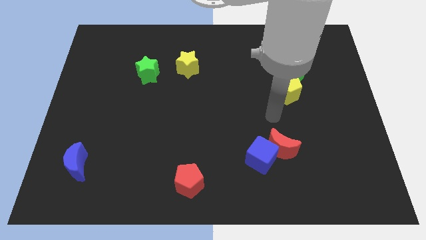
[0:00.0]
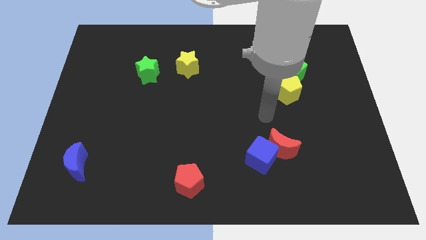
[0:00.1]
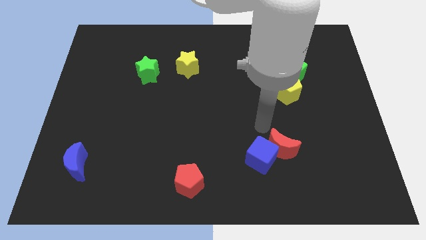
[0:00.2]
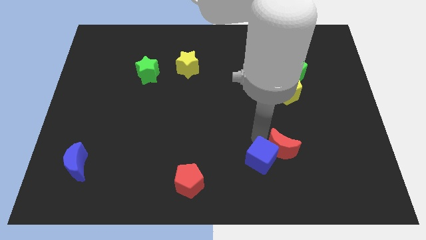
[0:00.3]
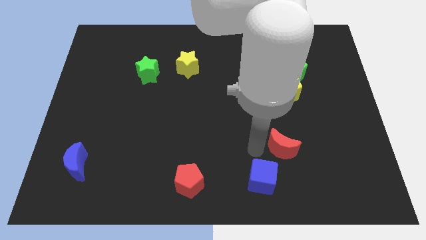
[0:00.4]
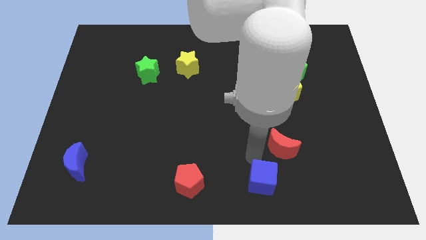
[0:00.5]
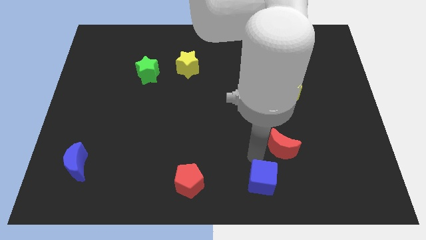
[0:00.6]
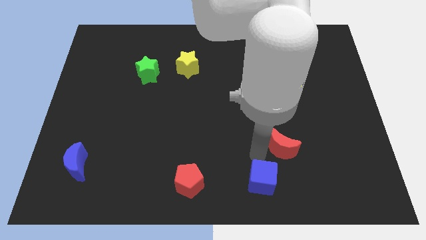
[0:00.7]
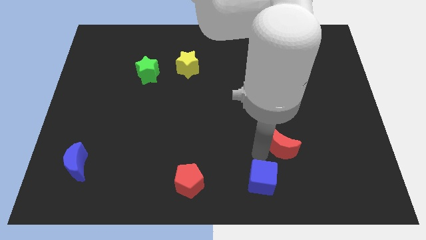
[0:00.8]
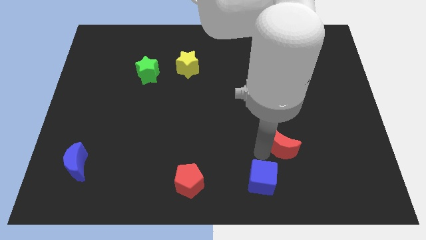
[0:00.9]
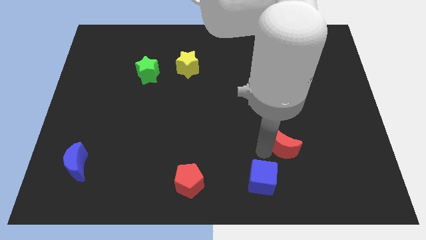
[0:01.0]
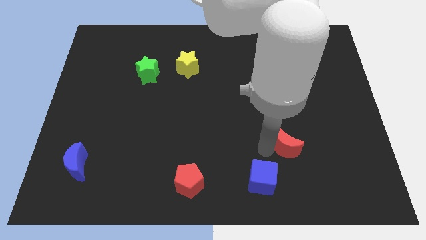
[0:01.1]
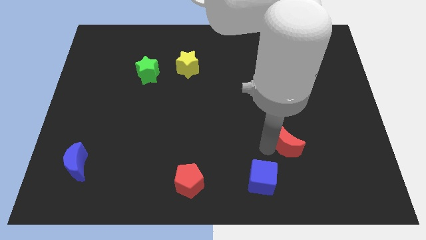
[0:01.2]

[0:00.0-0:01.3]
move the red moon away from the blue cube

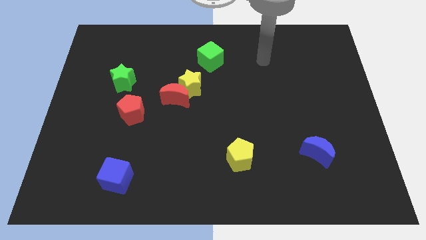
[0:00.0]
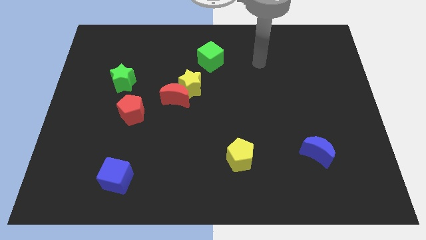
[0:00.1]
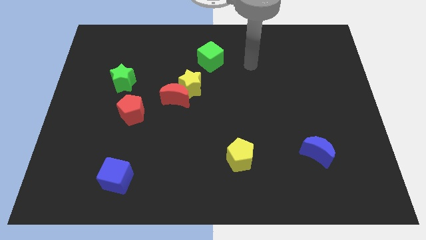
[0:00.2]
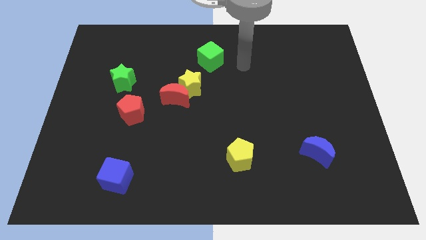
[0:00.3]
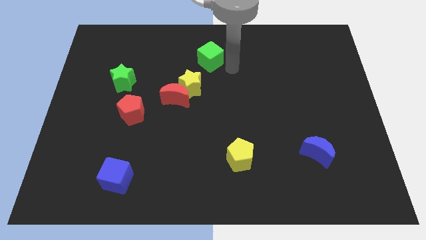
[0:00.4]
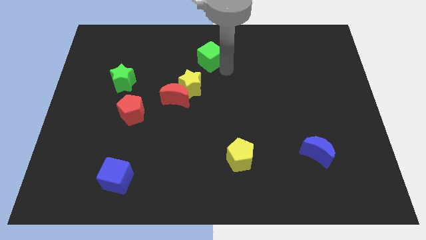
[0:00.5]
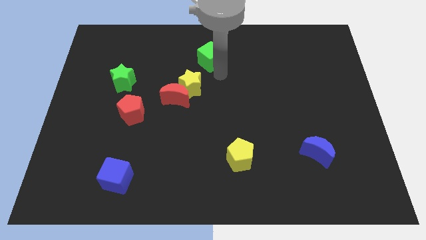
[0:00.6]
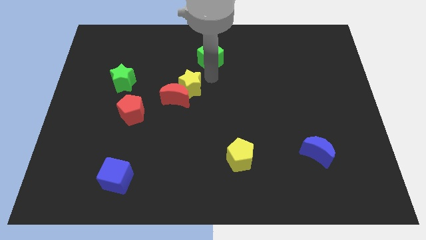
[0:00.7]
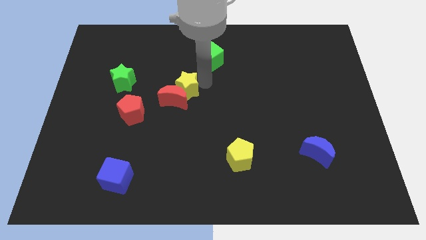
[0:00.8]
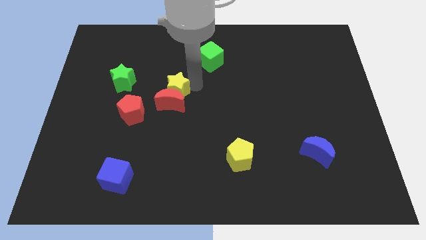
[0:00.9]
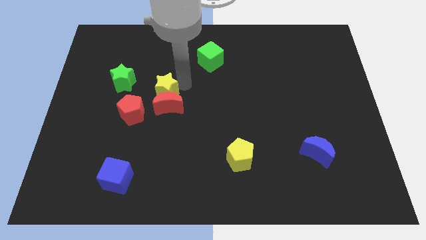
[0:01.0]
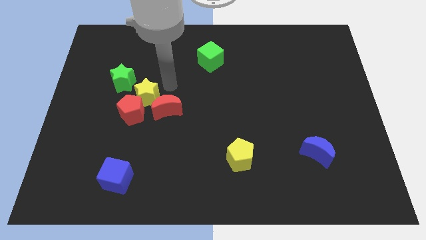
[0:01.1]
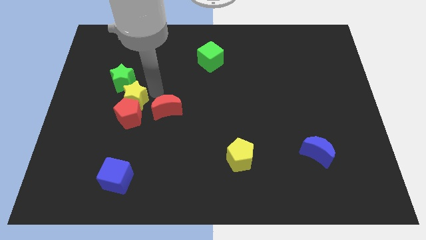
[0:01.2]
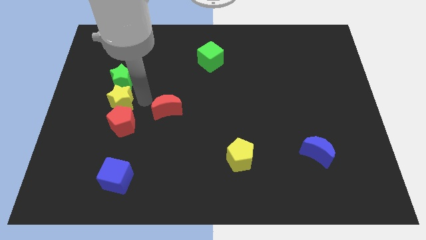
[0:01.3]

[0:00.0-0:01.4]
separate the red moon from the yellow star

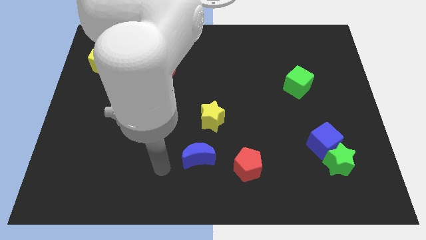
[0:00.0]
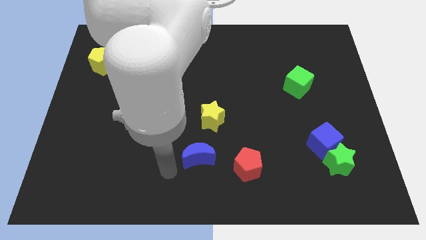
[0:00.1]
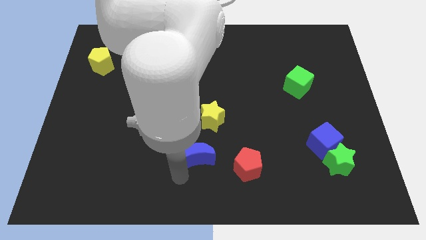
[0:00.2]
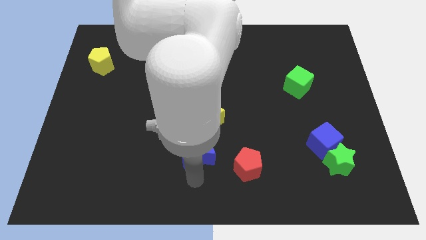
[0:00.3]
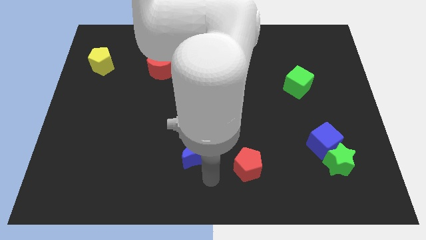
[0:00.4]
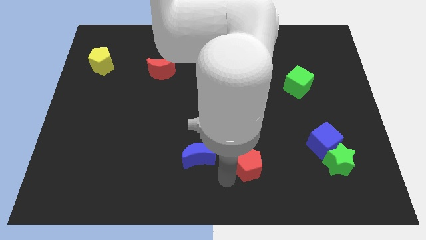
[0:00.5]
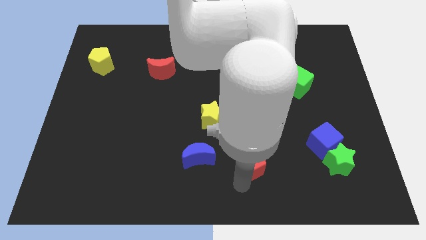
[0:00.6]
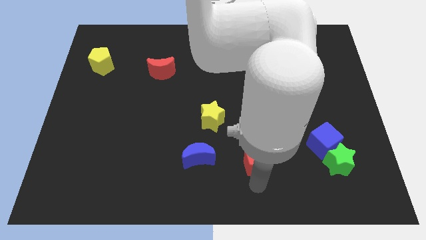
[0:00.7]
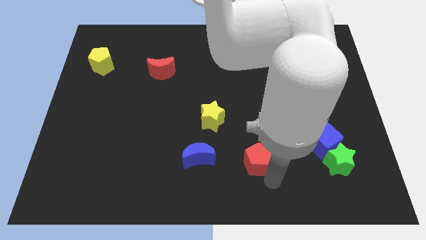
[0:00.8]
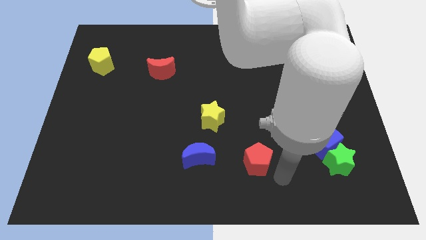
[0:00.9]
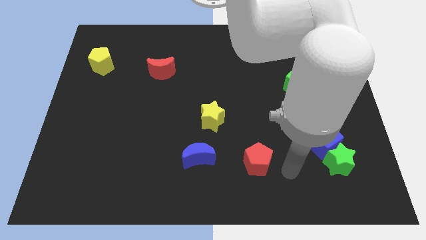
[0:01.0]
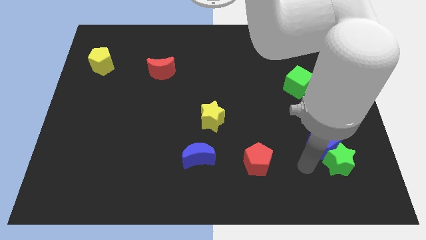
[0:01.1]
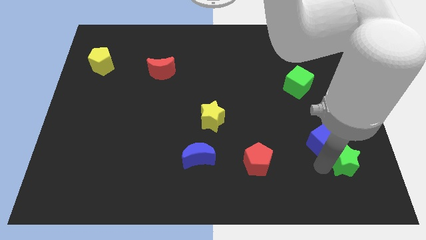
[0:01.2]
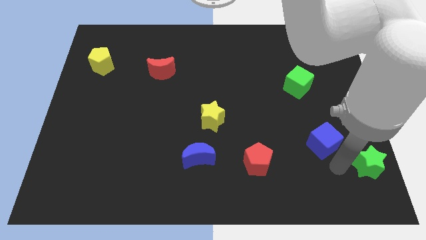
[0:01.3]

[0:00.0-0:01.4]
separate the blue cube from the green star

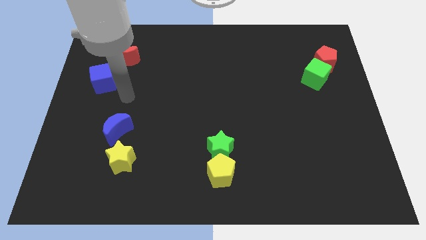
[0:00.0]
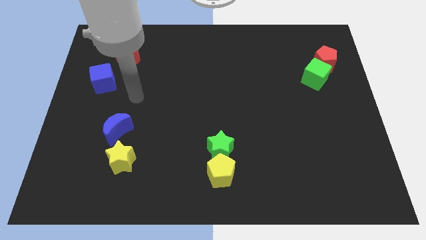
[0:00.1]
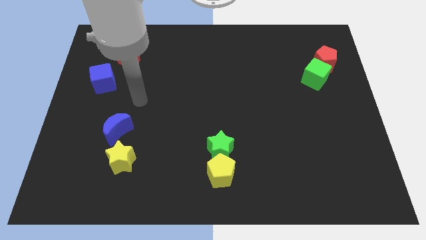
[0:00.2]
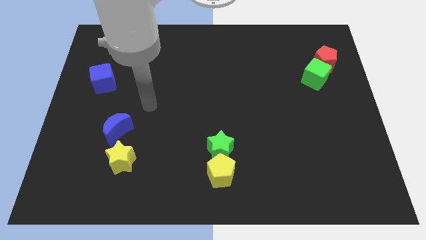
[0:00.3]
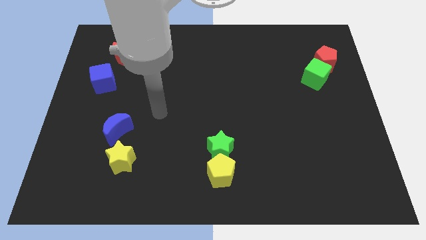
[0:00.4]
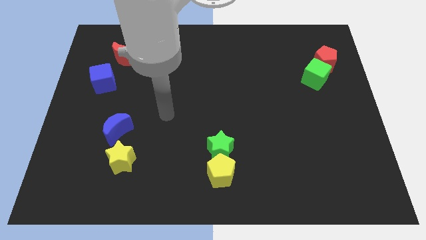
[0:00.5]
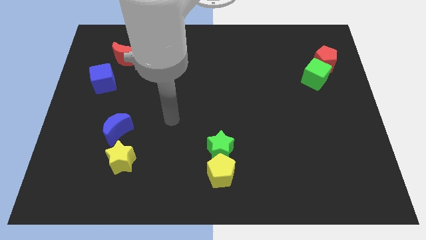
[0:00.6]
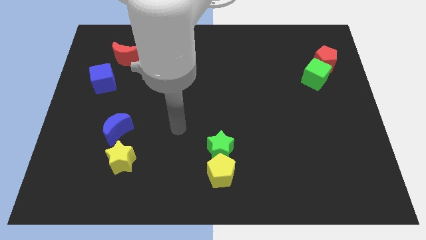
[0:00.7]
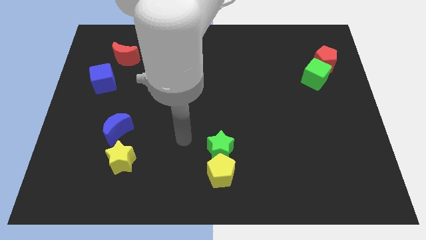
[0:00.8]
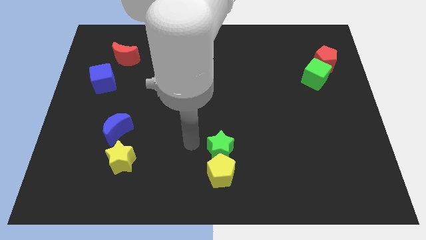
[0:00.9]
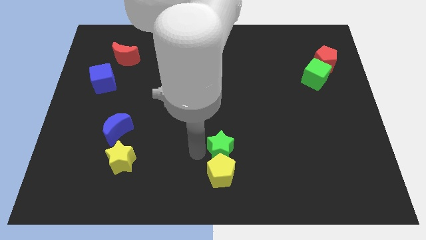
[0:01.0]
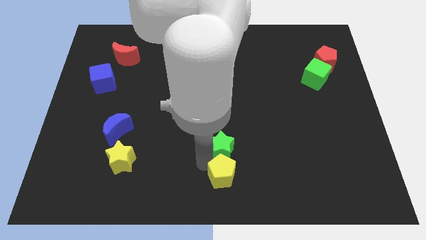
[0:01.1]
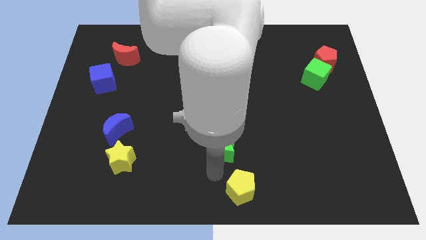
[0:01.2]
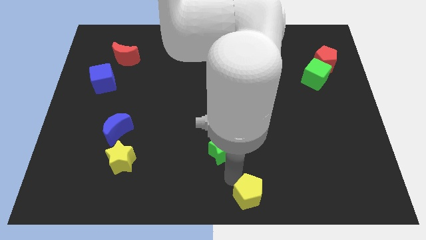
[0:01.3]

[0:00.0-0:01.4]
separate the green star from the yellow pentagon

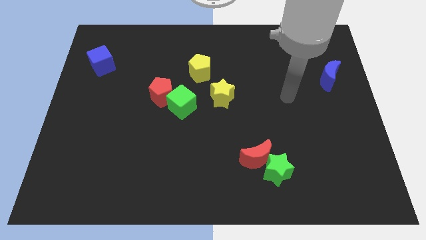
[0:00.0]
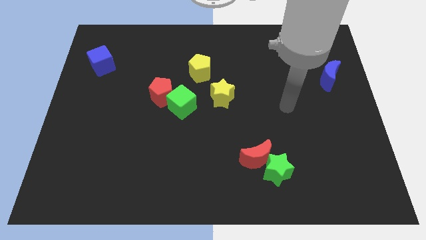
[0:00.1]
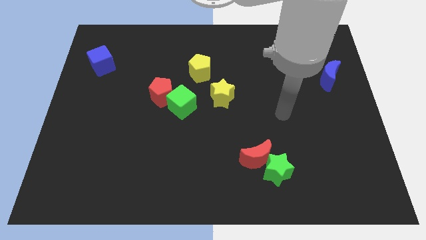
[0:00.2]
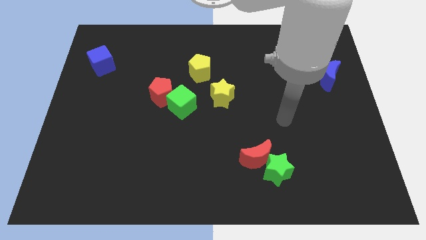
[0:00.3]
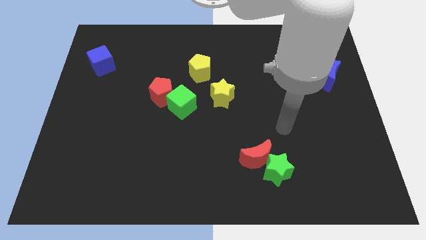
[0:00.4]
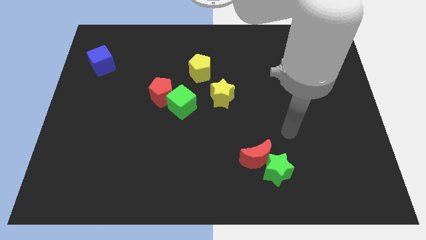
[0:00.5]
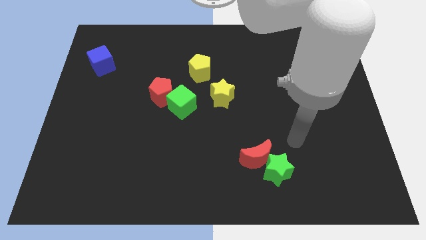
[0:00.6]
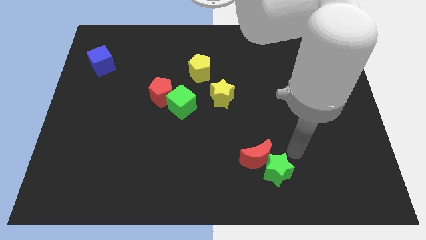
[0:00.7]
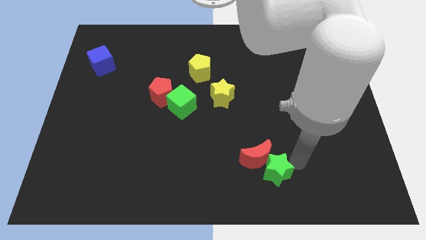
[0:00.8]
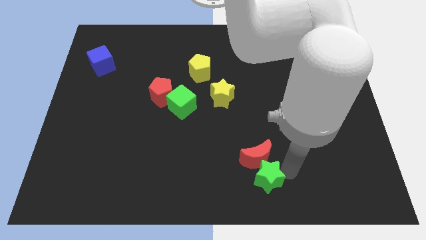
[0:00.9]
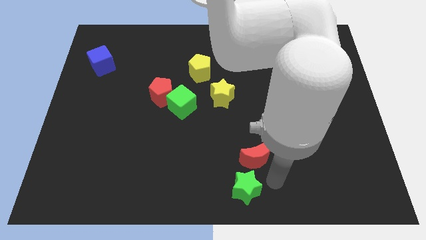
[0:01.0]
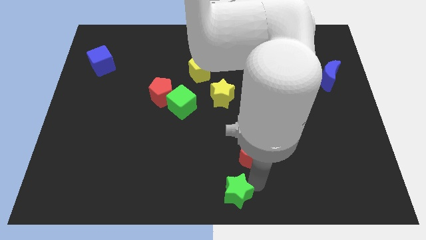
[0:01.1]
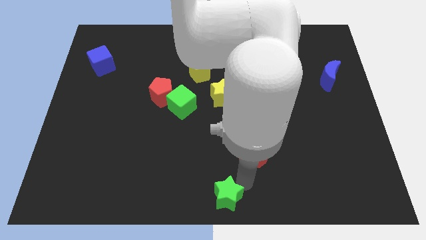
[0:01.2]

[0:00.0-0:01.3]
separate the red moon from the green star

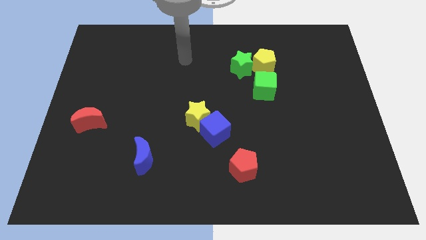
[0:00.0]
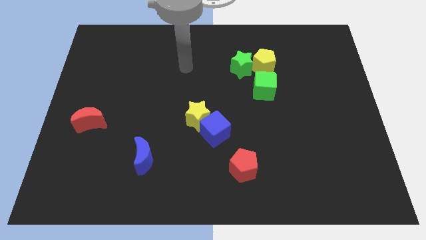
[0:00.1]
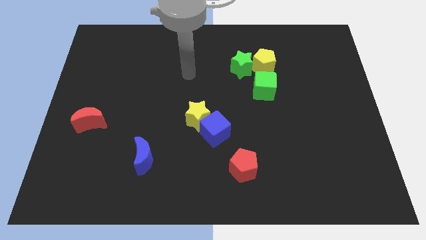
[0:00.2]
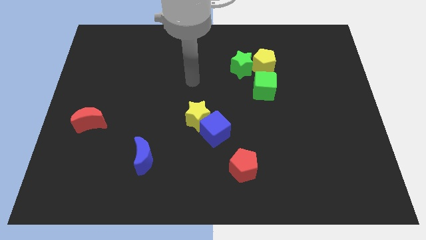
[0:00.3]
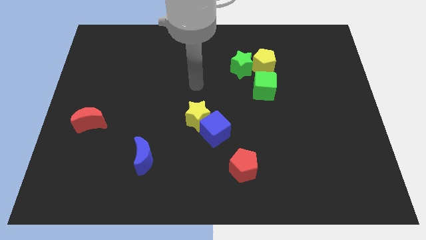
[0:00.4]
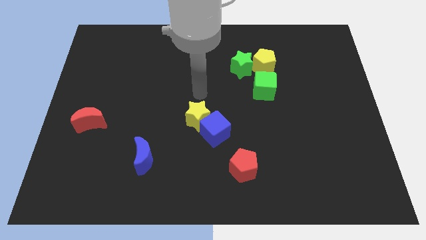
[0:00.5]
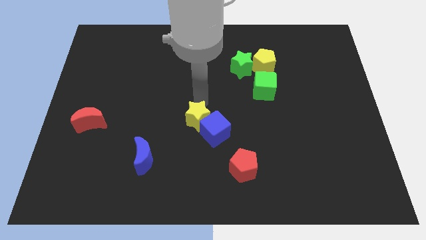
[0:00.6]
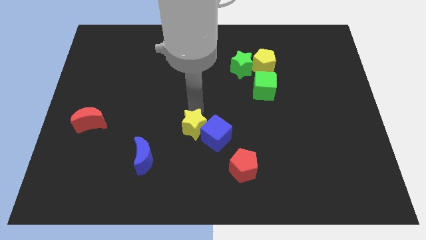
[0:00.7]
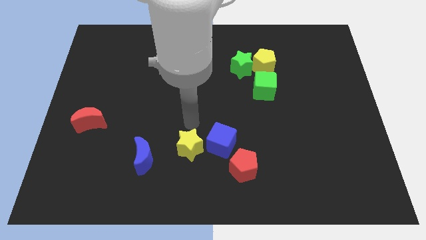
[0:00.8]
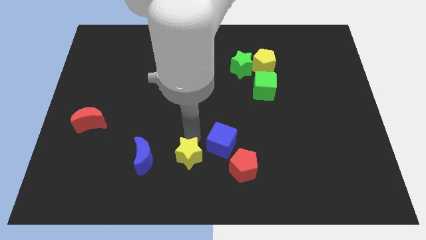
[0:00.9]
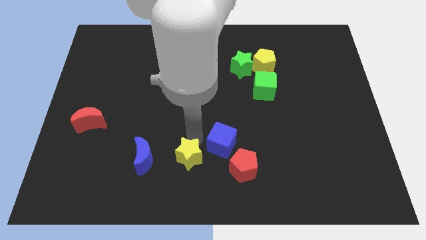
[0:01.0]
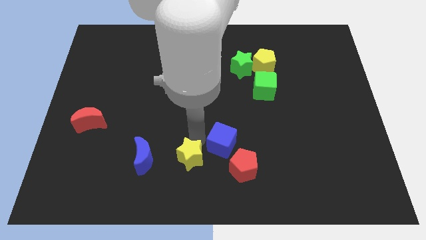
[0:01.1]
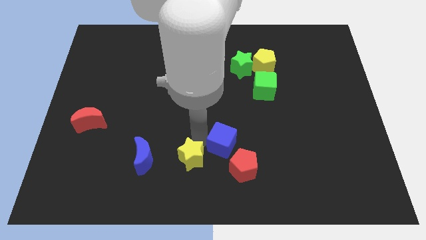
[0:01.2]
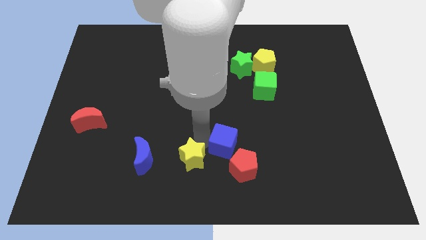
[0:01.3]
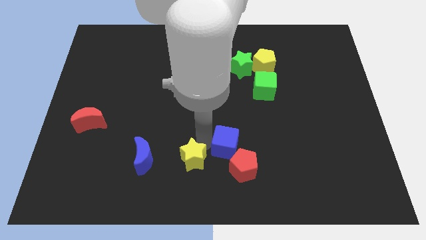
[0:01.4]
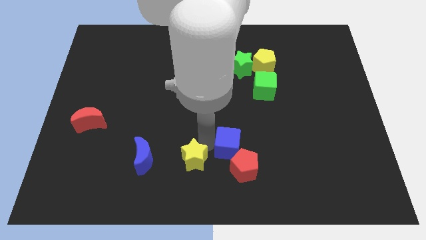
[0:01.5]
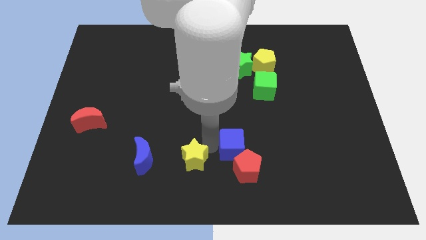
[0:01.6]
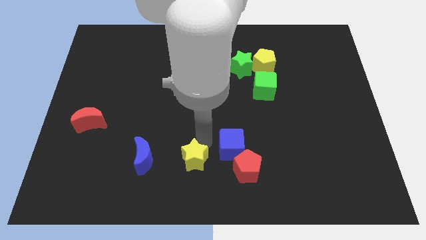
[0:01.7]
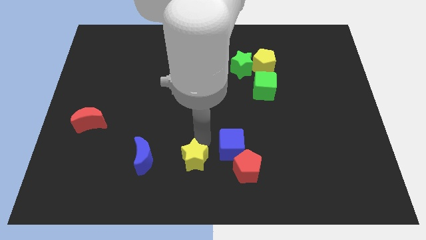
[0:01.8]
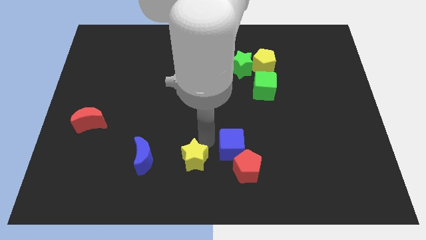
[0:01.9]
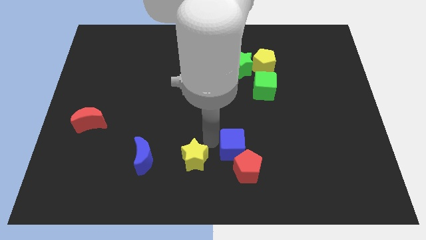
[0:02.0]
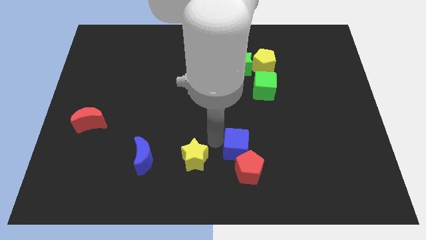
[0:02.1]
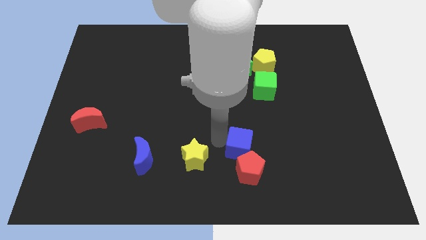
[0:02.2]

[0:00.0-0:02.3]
move the blue cube away from the yellow star

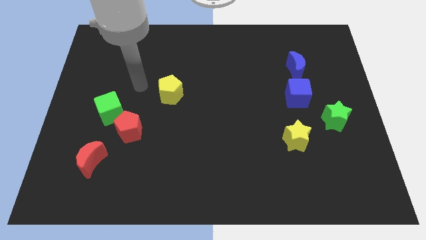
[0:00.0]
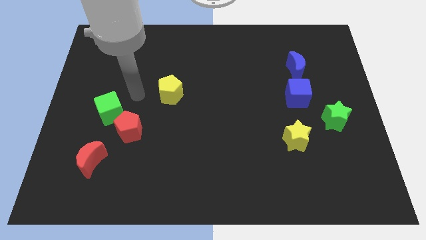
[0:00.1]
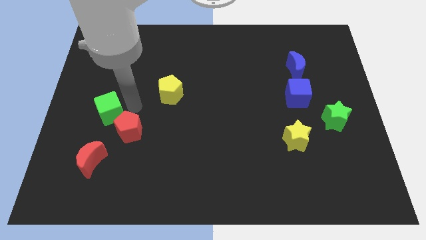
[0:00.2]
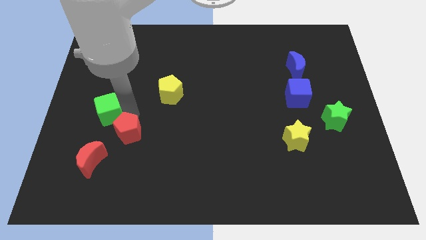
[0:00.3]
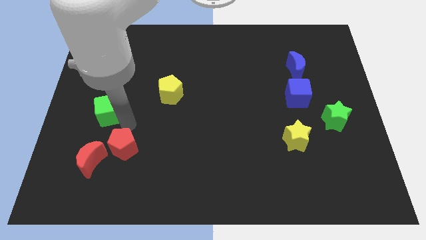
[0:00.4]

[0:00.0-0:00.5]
pull the green cube apart from the red pentagon
